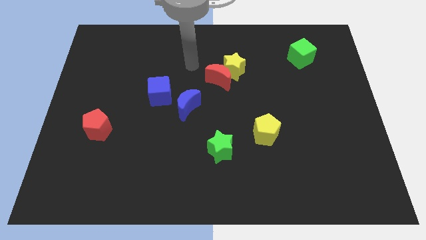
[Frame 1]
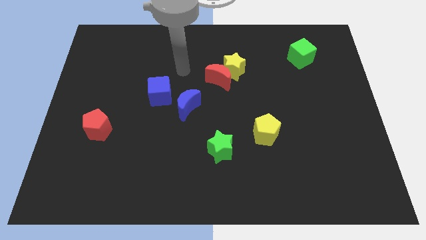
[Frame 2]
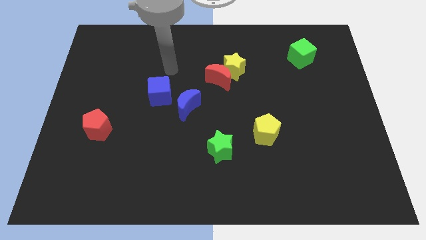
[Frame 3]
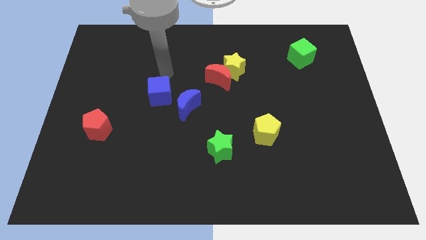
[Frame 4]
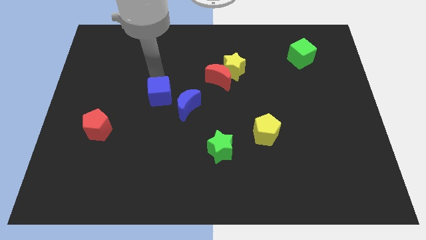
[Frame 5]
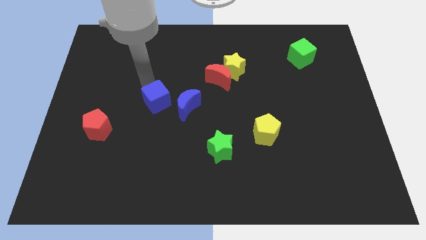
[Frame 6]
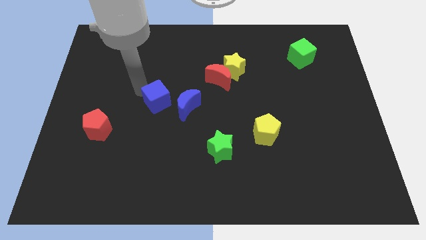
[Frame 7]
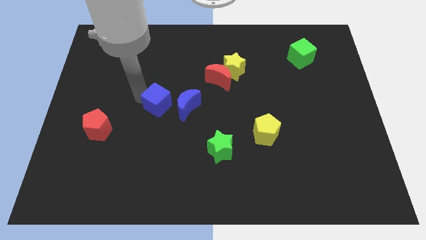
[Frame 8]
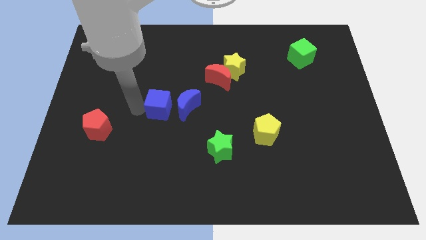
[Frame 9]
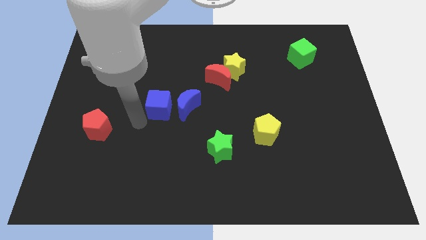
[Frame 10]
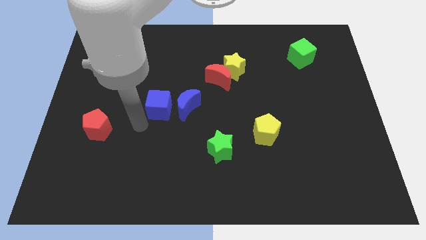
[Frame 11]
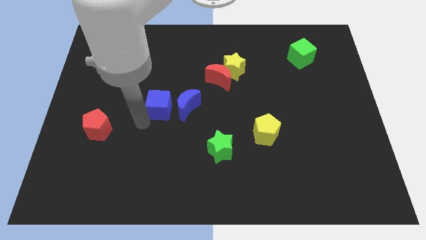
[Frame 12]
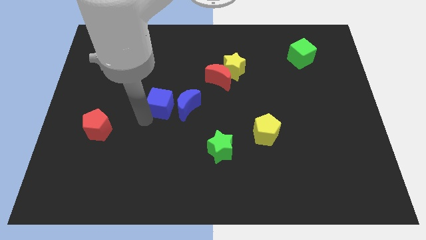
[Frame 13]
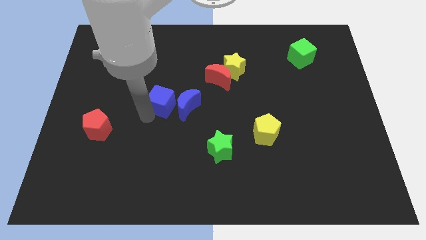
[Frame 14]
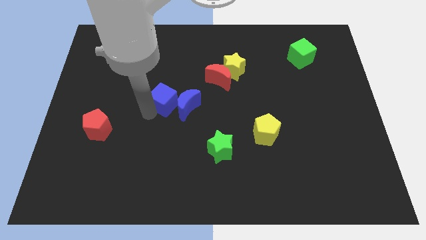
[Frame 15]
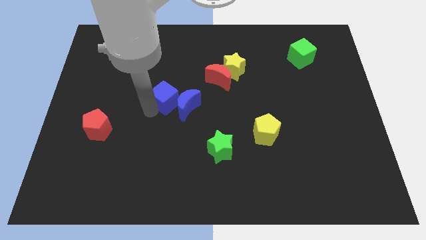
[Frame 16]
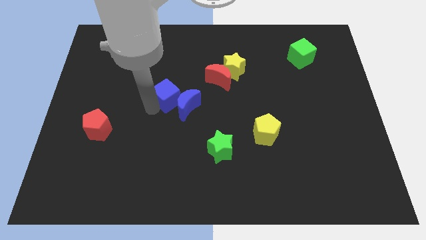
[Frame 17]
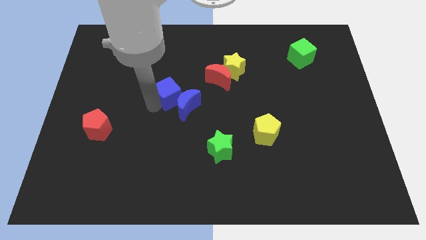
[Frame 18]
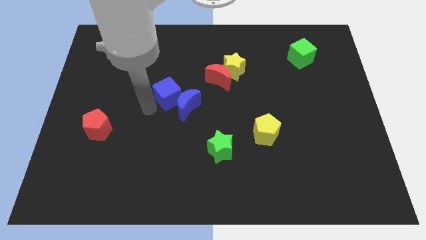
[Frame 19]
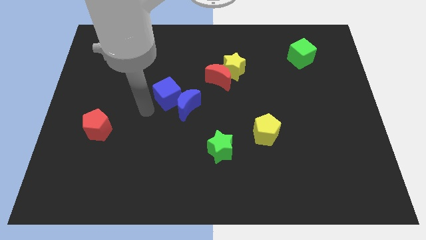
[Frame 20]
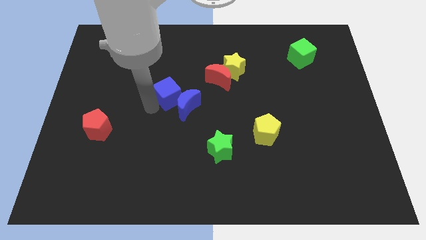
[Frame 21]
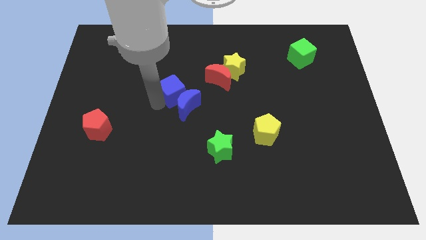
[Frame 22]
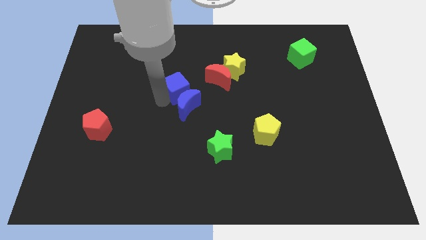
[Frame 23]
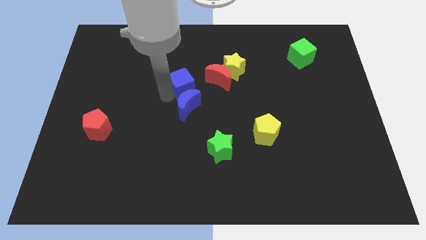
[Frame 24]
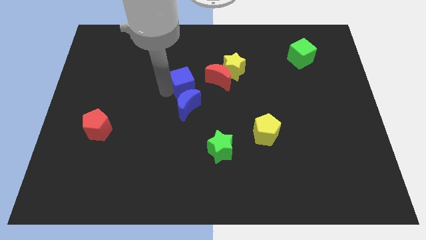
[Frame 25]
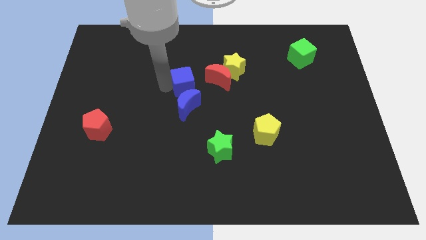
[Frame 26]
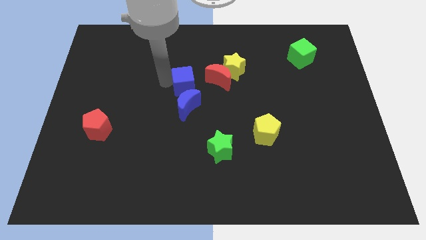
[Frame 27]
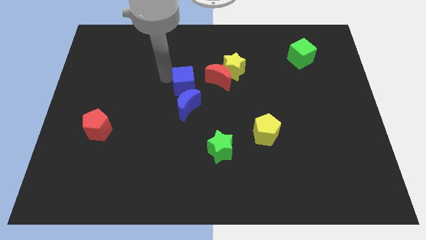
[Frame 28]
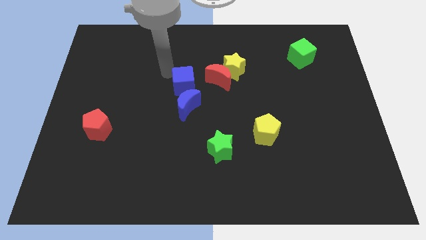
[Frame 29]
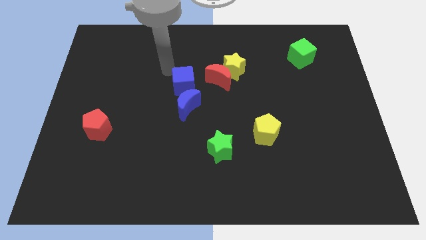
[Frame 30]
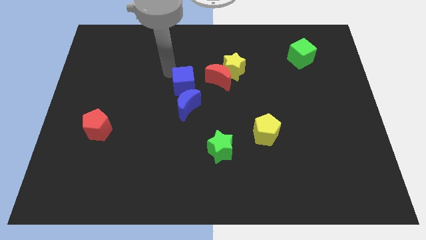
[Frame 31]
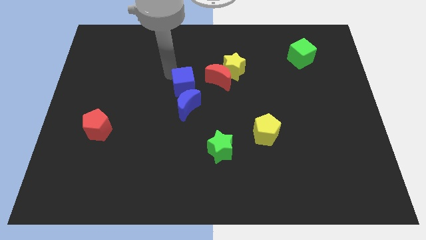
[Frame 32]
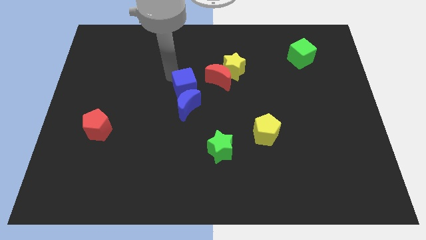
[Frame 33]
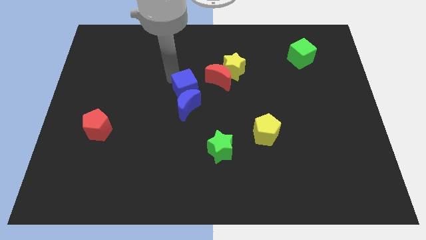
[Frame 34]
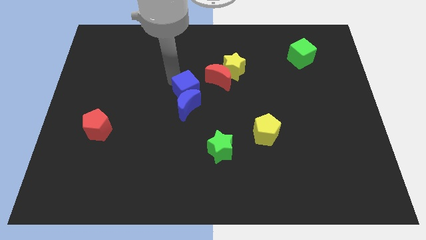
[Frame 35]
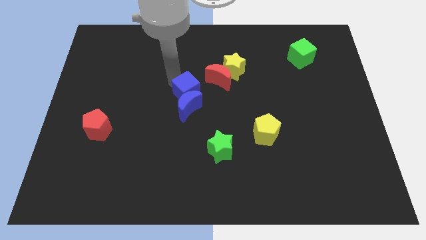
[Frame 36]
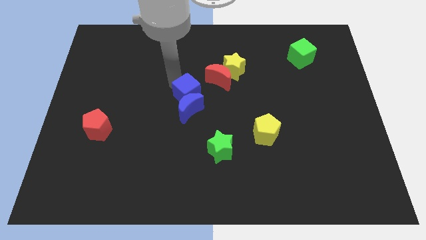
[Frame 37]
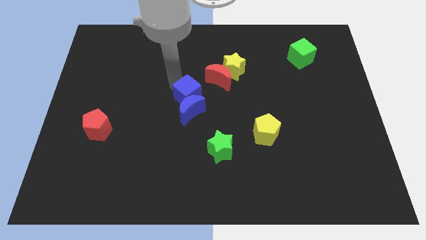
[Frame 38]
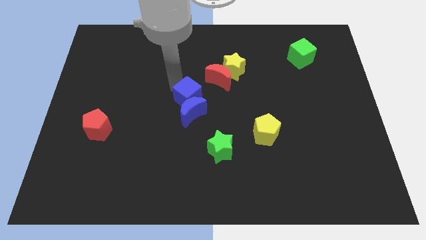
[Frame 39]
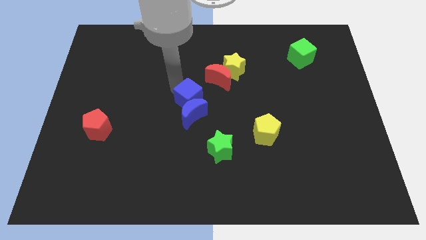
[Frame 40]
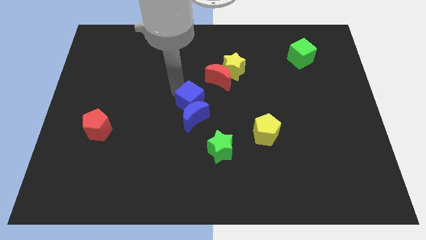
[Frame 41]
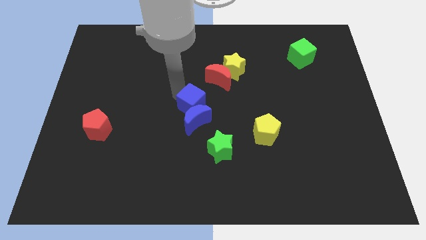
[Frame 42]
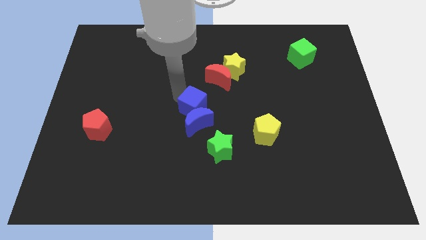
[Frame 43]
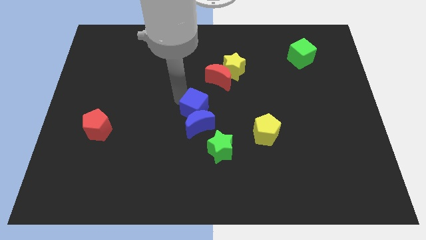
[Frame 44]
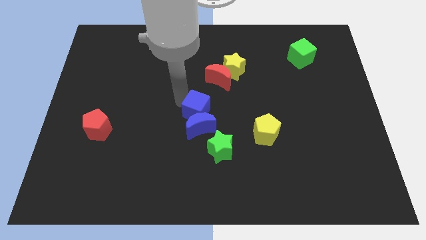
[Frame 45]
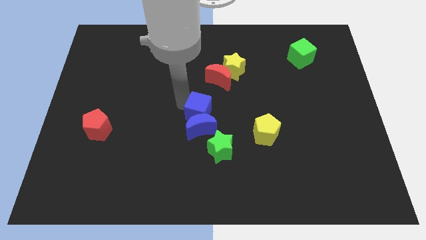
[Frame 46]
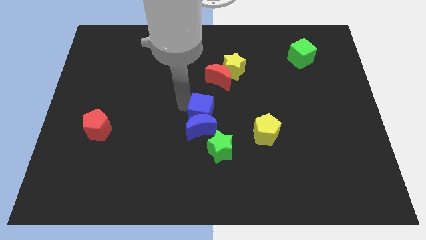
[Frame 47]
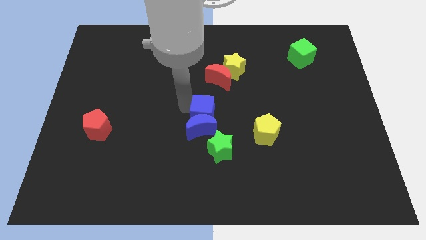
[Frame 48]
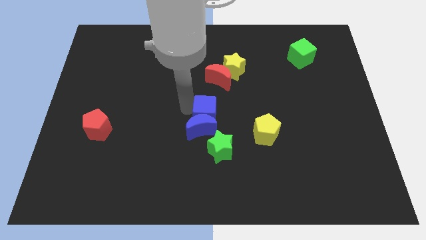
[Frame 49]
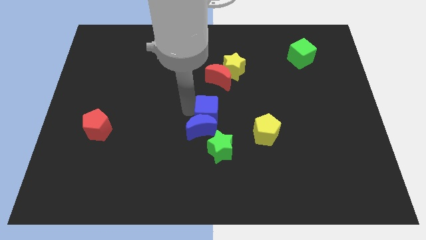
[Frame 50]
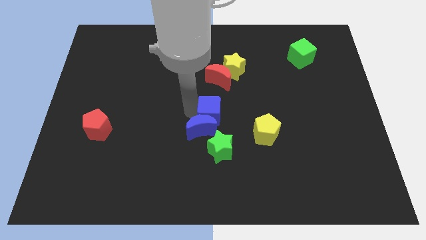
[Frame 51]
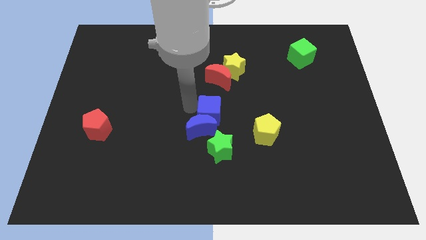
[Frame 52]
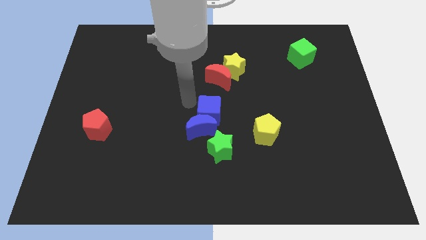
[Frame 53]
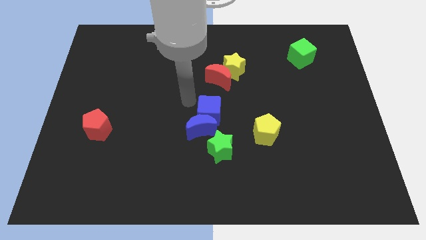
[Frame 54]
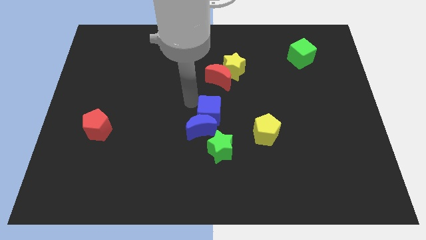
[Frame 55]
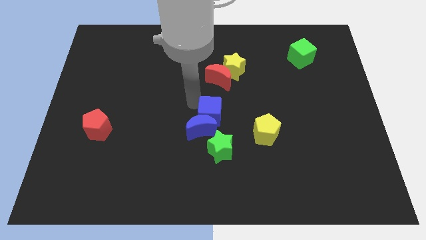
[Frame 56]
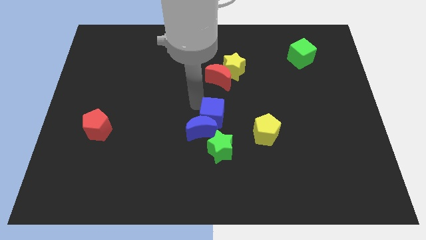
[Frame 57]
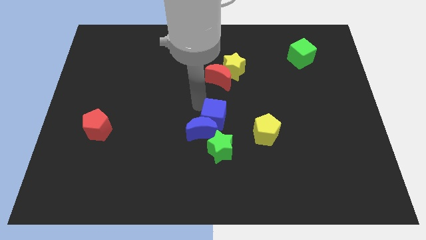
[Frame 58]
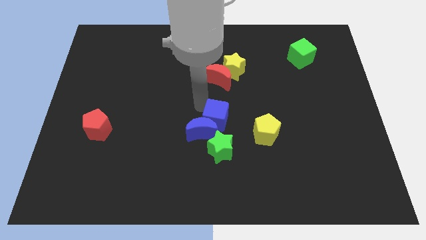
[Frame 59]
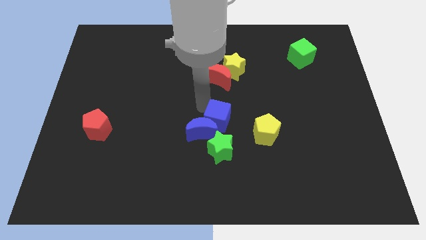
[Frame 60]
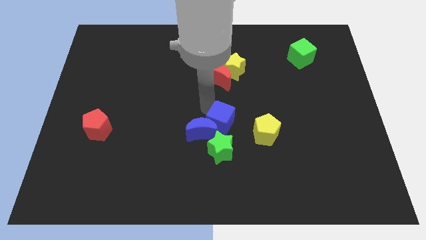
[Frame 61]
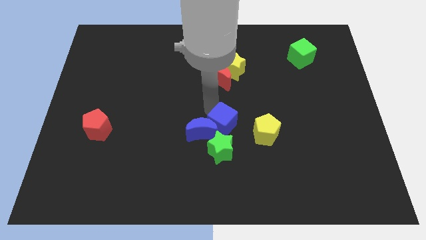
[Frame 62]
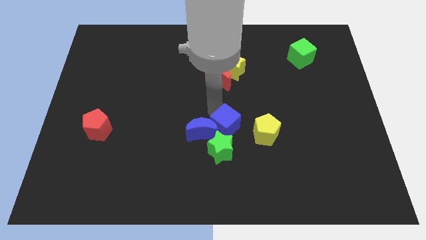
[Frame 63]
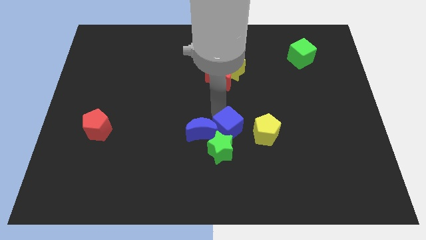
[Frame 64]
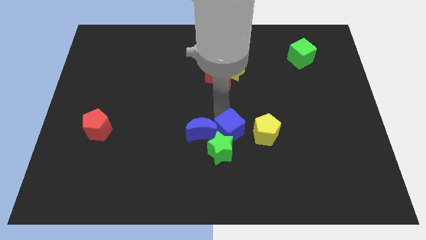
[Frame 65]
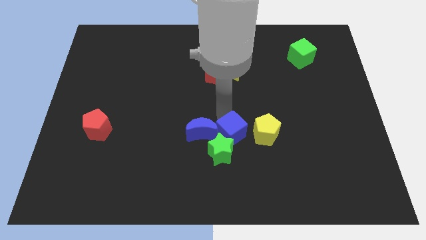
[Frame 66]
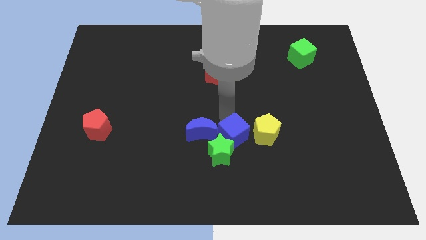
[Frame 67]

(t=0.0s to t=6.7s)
move the blue cube to the bottom left of the yellow pentagon

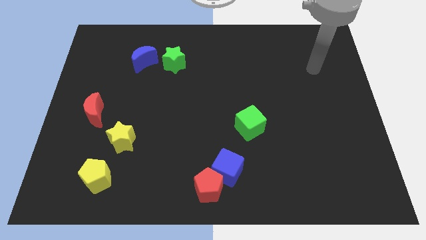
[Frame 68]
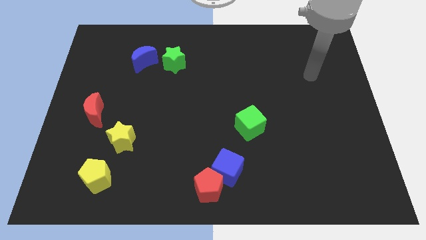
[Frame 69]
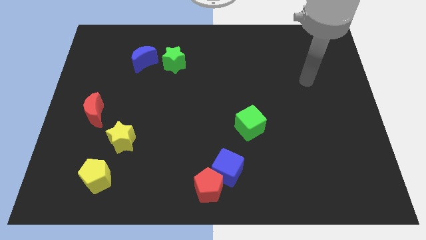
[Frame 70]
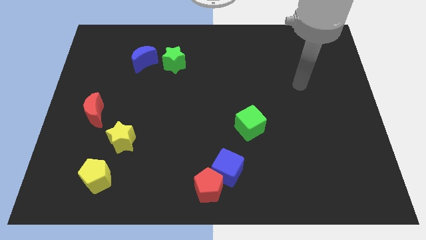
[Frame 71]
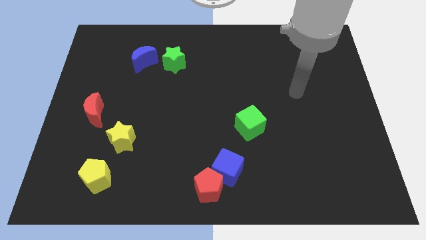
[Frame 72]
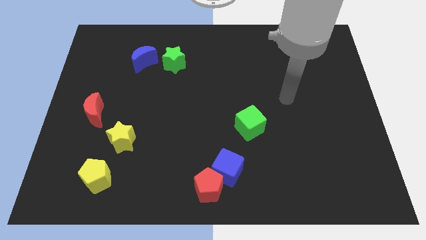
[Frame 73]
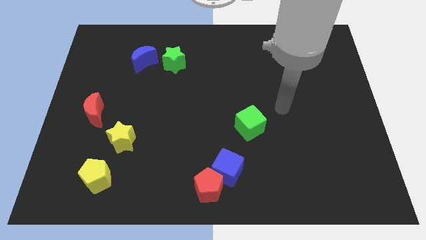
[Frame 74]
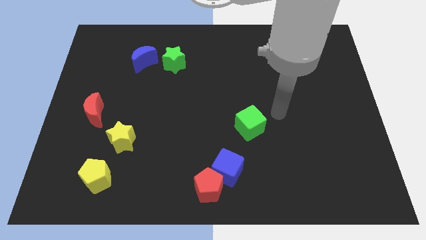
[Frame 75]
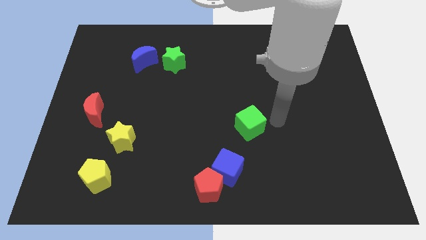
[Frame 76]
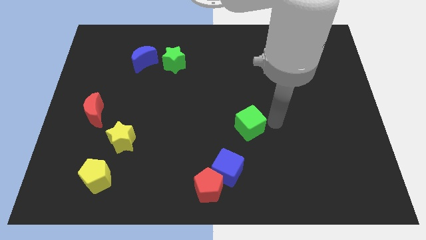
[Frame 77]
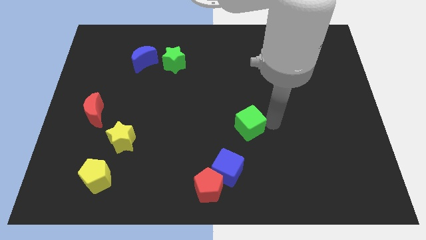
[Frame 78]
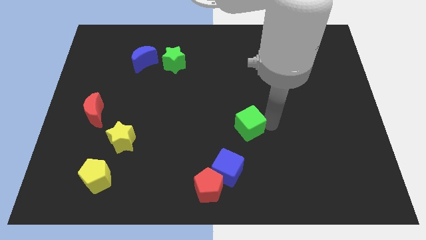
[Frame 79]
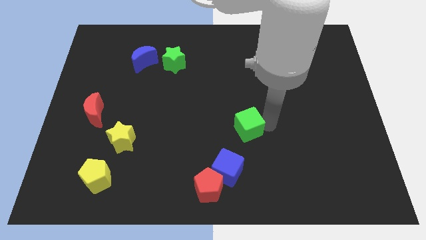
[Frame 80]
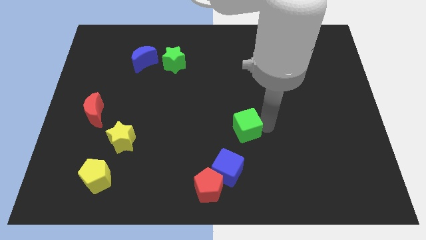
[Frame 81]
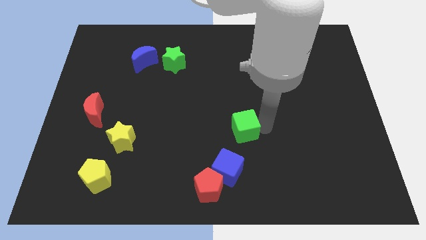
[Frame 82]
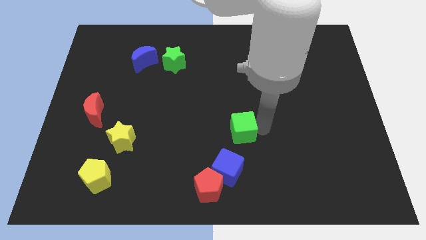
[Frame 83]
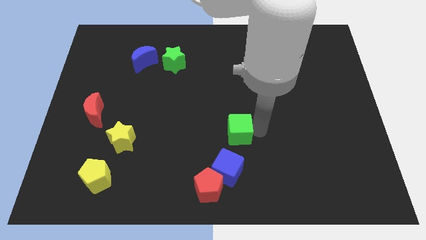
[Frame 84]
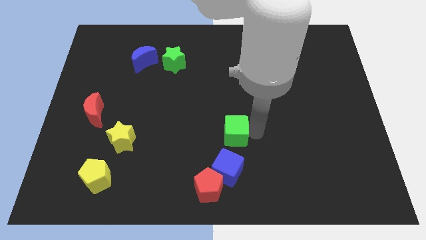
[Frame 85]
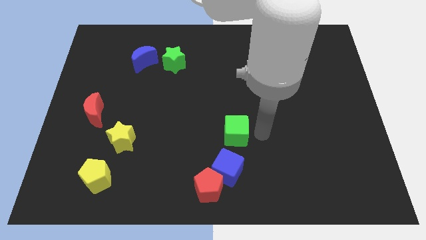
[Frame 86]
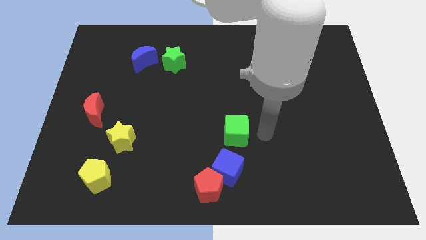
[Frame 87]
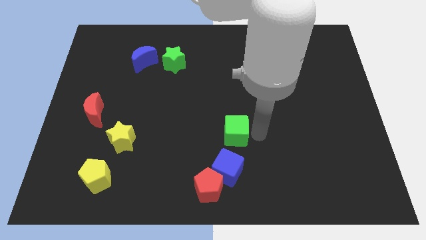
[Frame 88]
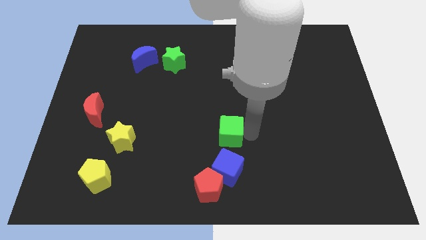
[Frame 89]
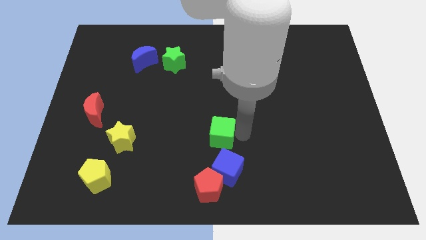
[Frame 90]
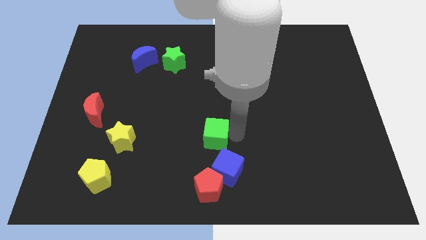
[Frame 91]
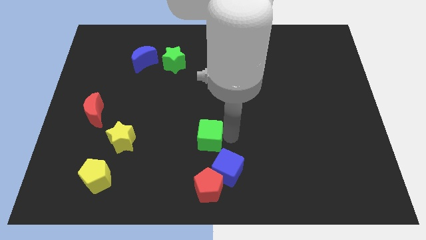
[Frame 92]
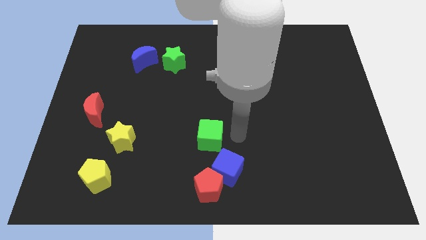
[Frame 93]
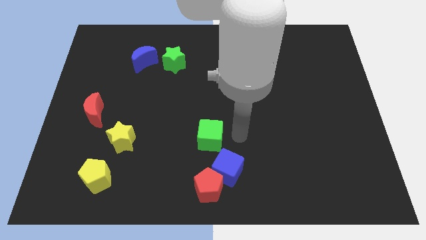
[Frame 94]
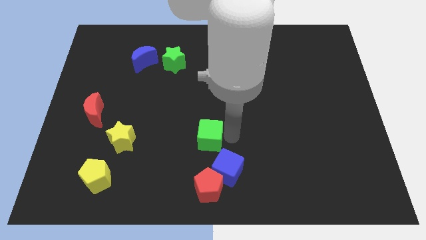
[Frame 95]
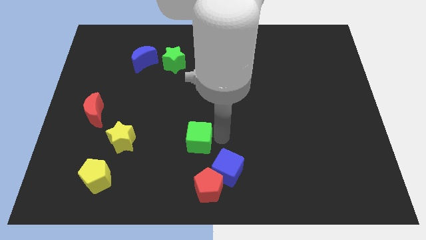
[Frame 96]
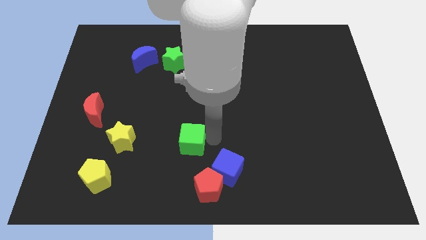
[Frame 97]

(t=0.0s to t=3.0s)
slide the green cube right of the yellow star
